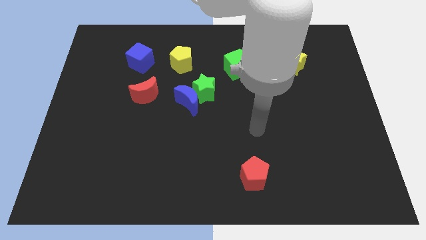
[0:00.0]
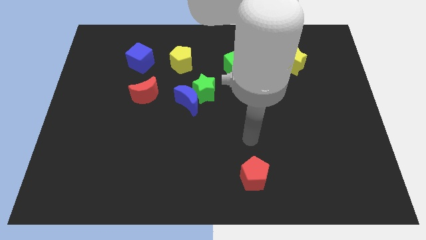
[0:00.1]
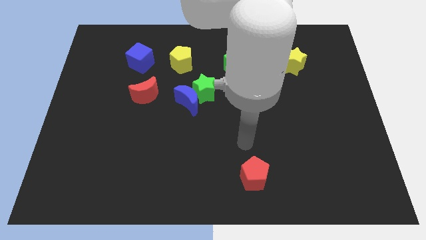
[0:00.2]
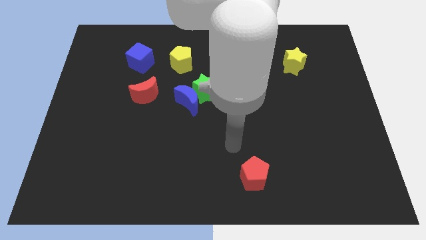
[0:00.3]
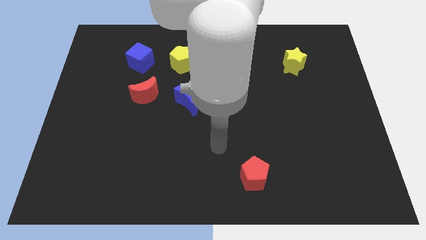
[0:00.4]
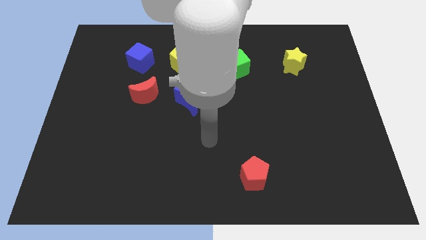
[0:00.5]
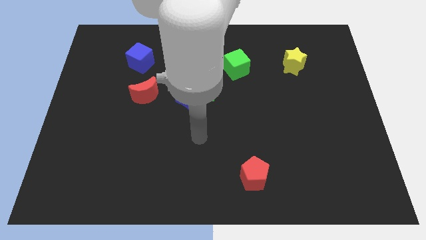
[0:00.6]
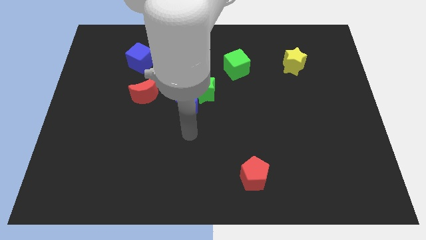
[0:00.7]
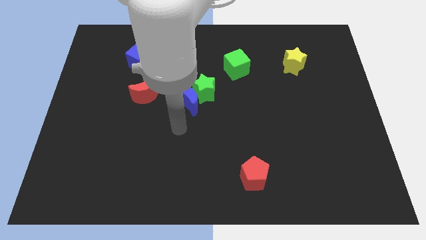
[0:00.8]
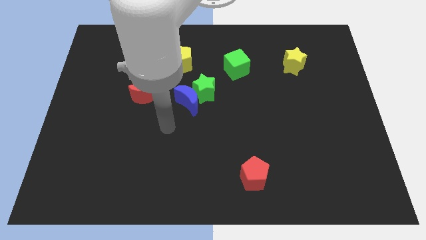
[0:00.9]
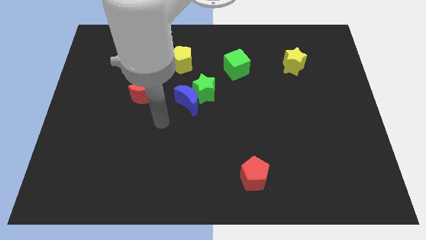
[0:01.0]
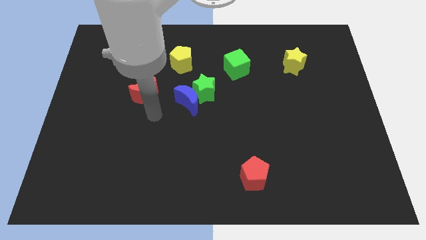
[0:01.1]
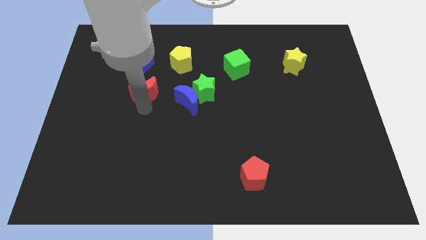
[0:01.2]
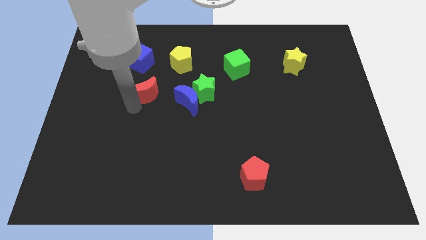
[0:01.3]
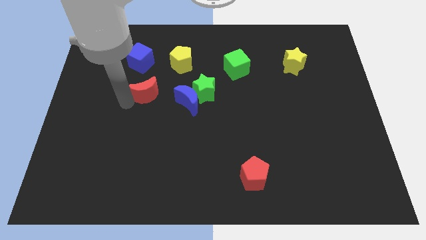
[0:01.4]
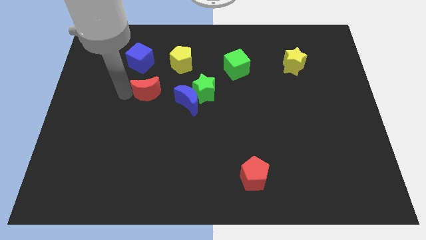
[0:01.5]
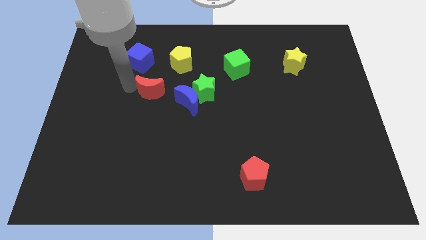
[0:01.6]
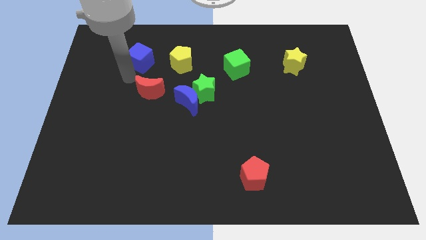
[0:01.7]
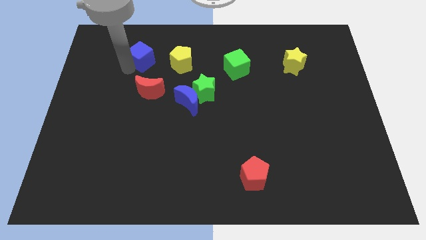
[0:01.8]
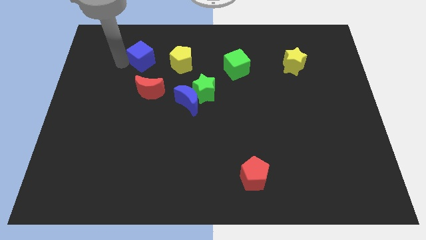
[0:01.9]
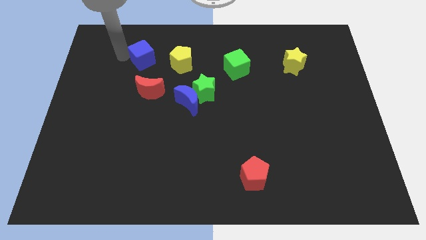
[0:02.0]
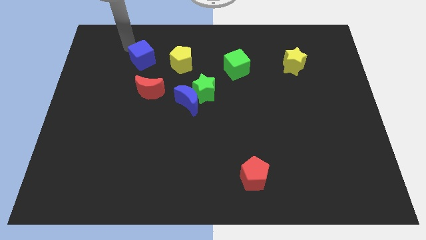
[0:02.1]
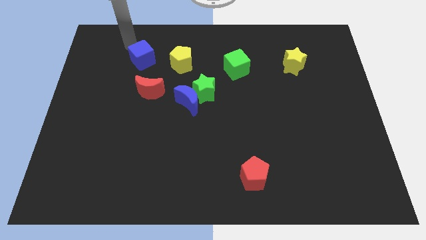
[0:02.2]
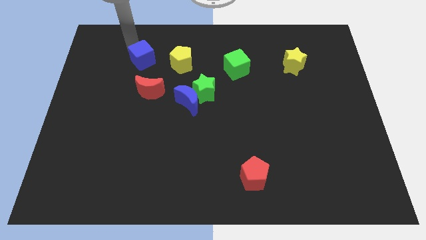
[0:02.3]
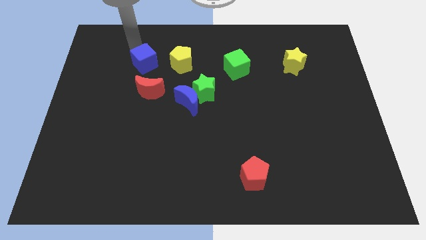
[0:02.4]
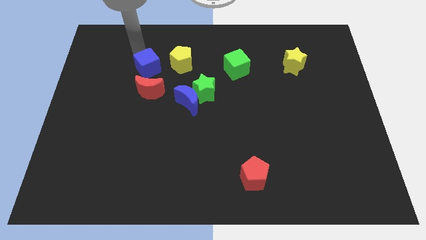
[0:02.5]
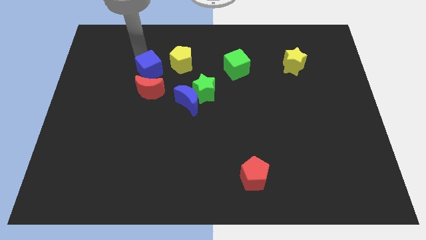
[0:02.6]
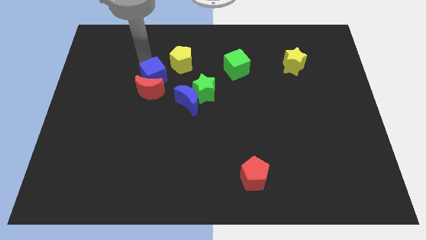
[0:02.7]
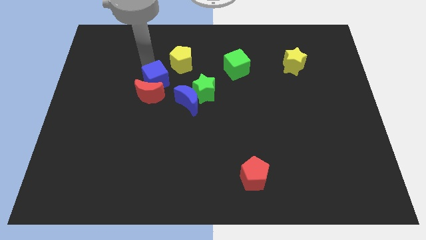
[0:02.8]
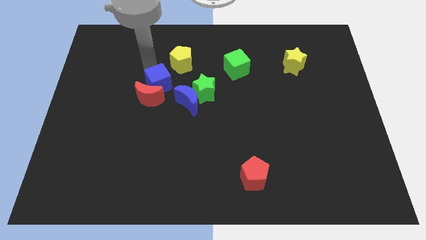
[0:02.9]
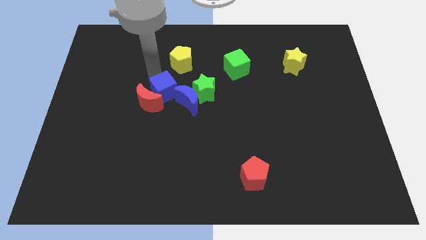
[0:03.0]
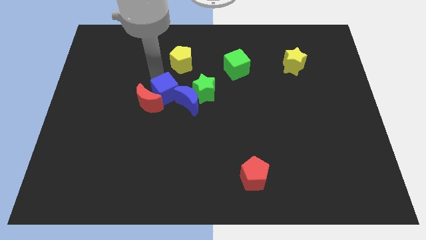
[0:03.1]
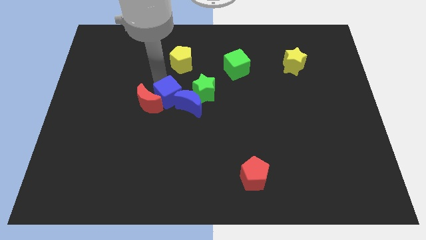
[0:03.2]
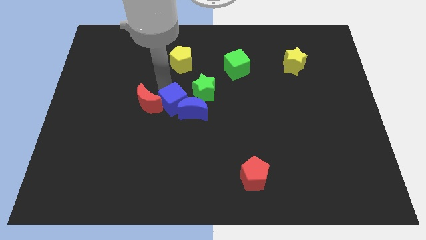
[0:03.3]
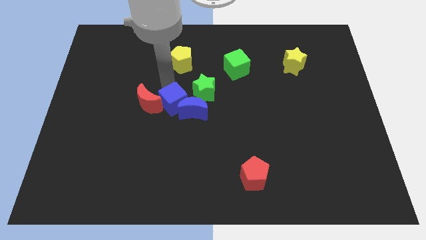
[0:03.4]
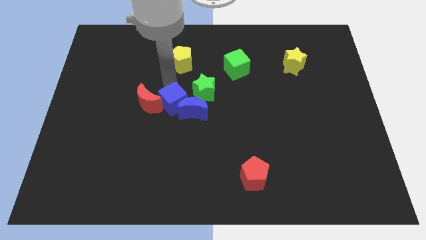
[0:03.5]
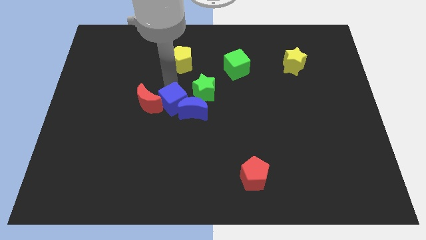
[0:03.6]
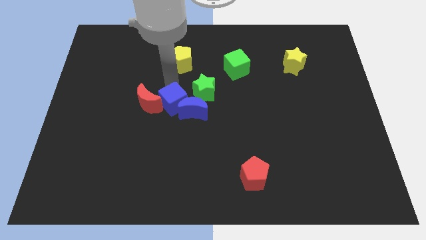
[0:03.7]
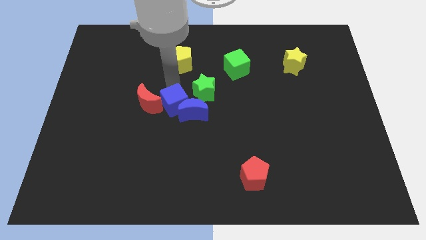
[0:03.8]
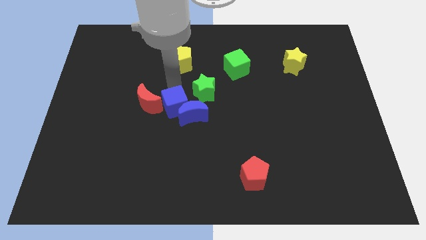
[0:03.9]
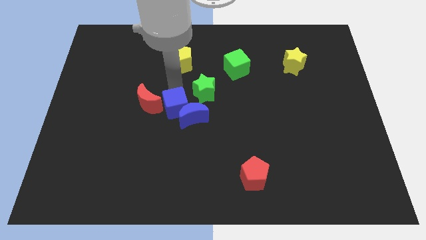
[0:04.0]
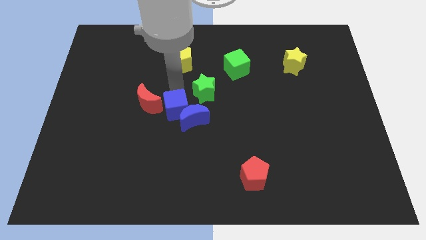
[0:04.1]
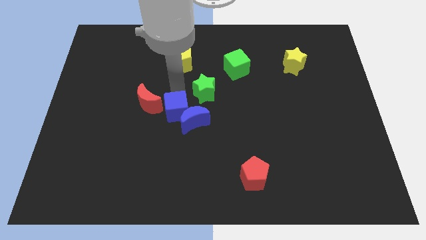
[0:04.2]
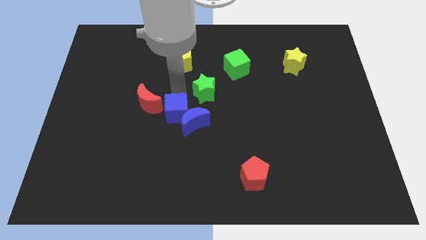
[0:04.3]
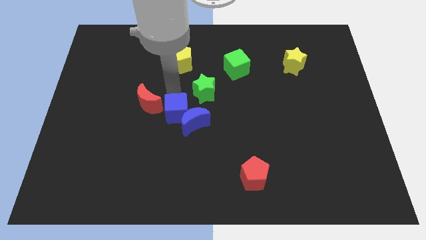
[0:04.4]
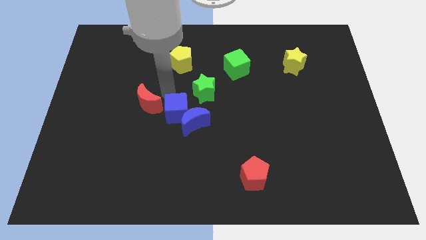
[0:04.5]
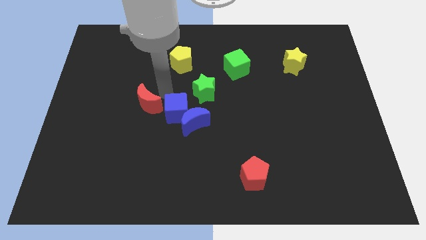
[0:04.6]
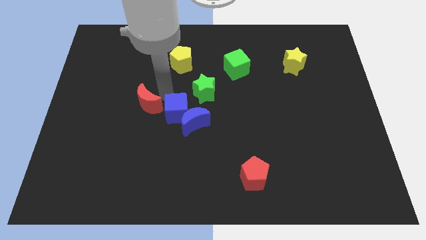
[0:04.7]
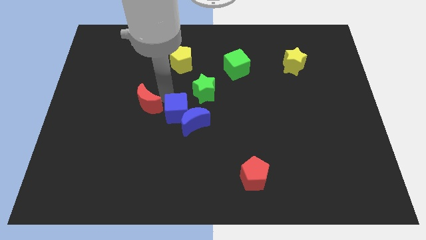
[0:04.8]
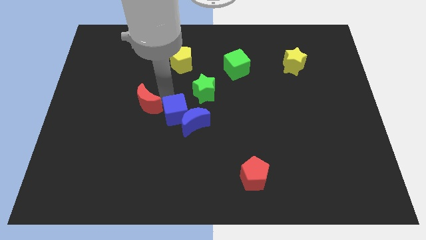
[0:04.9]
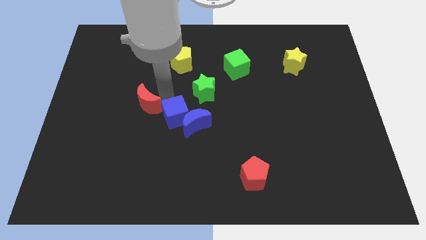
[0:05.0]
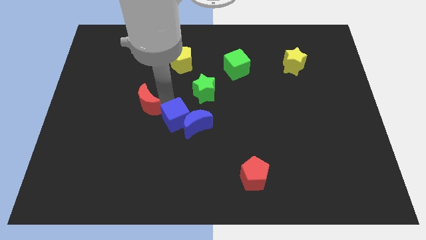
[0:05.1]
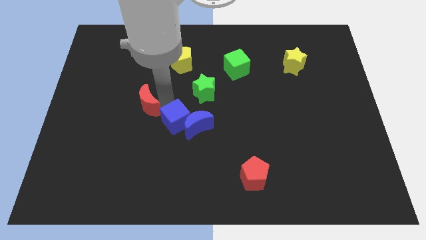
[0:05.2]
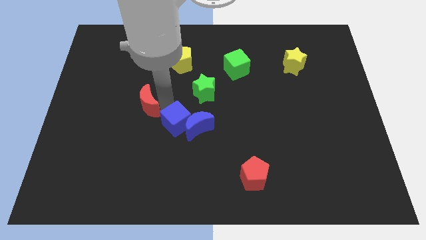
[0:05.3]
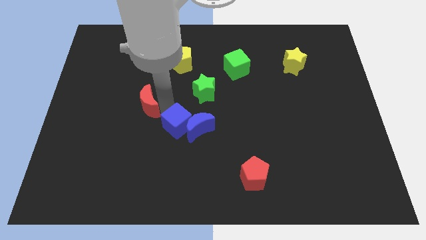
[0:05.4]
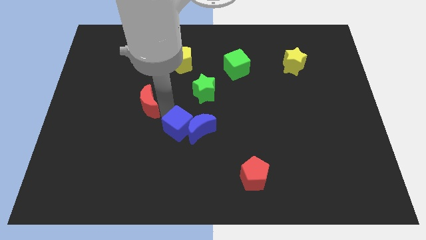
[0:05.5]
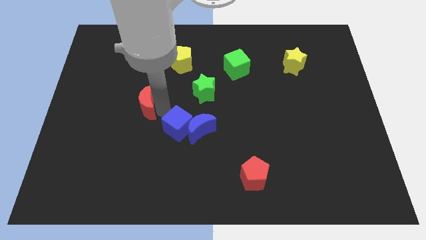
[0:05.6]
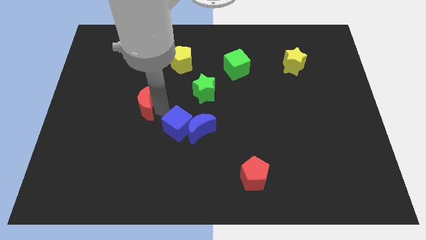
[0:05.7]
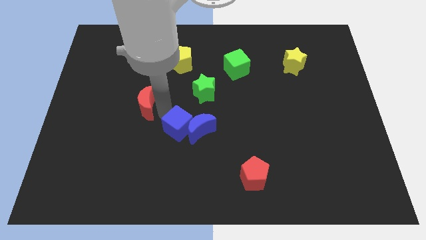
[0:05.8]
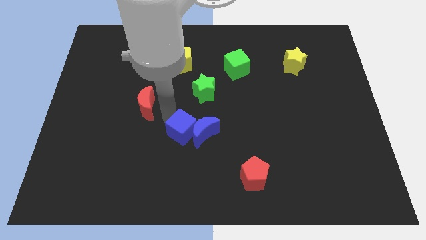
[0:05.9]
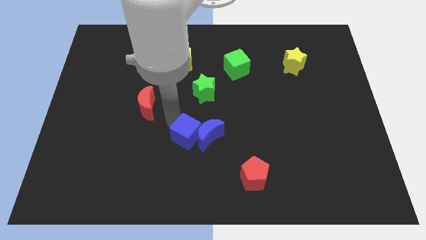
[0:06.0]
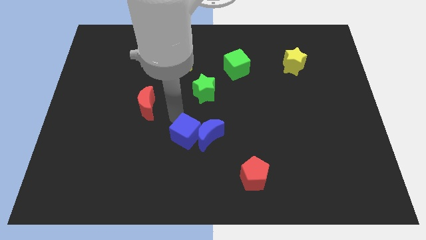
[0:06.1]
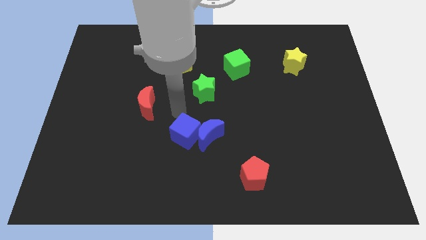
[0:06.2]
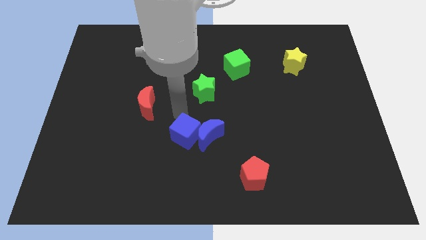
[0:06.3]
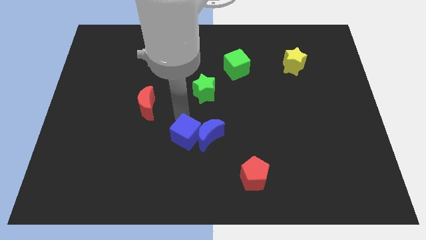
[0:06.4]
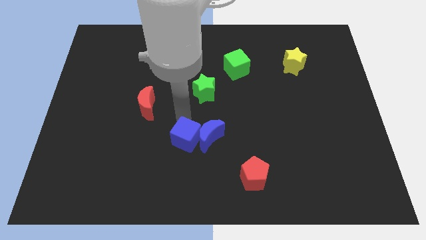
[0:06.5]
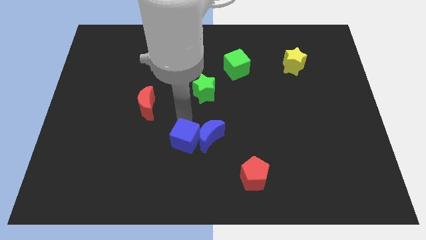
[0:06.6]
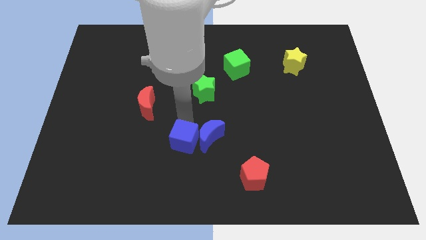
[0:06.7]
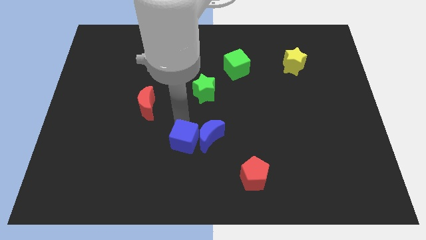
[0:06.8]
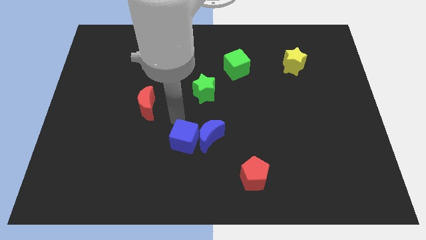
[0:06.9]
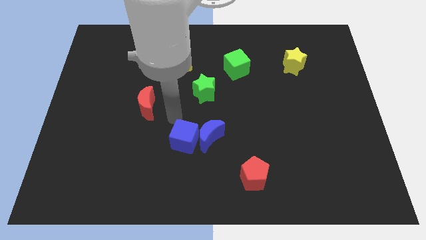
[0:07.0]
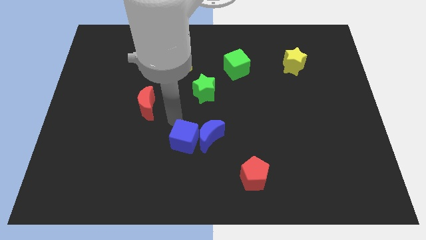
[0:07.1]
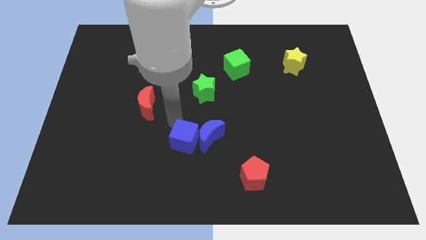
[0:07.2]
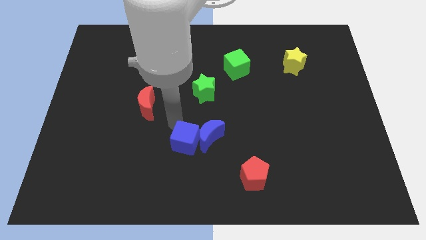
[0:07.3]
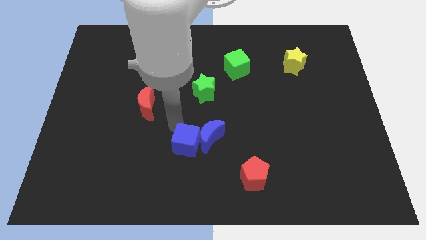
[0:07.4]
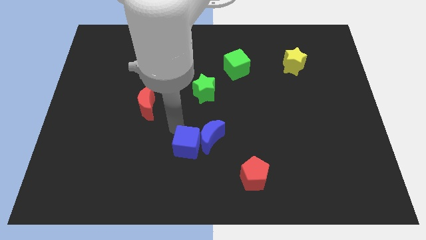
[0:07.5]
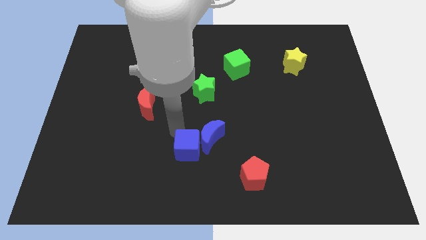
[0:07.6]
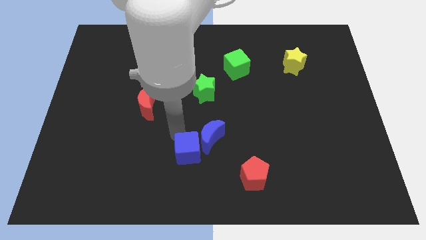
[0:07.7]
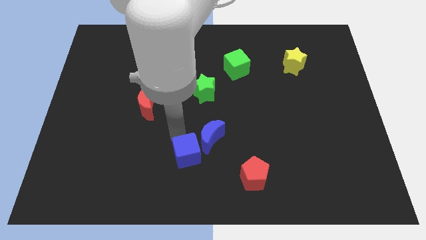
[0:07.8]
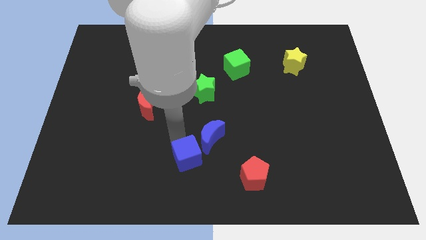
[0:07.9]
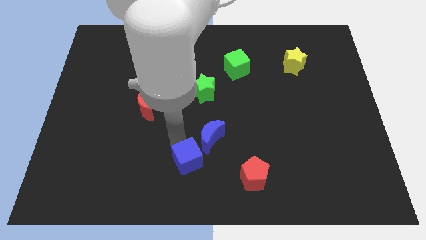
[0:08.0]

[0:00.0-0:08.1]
slide the blue cube to the left side of the red pentagon
